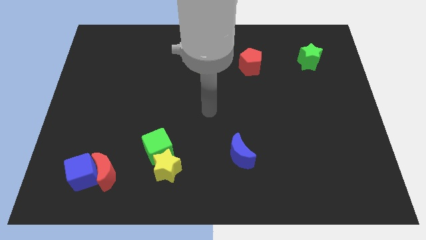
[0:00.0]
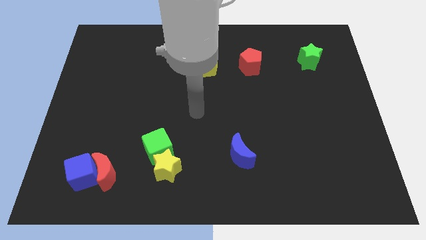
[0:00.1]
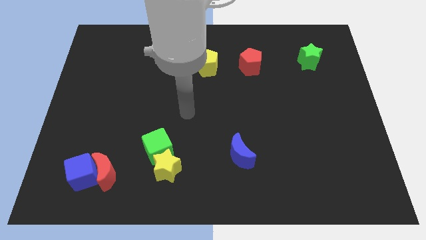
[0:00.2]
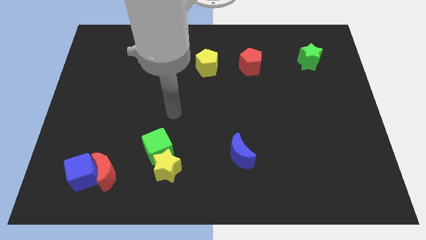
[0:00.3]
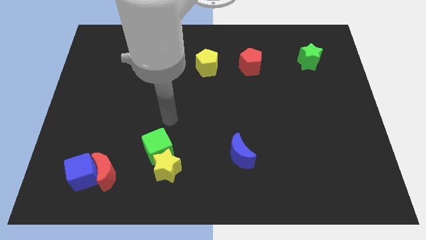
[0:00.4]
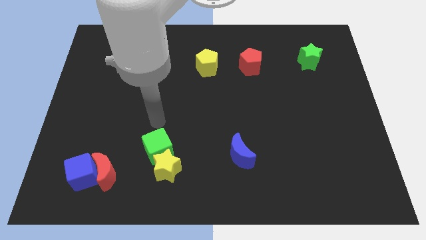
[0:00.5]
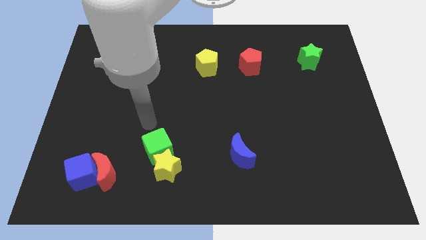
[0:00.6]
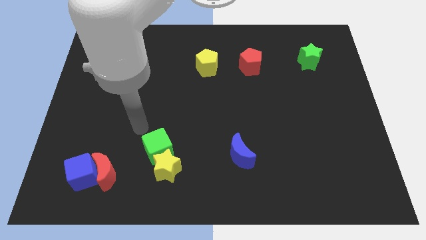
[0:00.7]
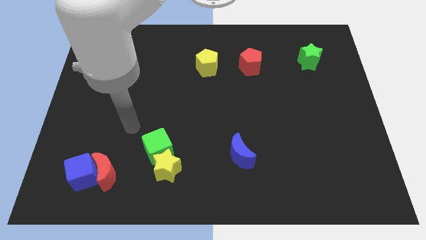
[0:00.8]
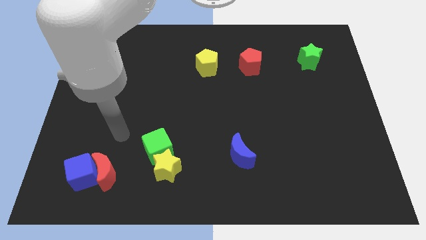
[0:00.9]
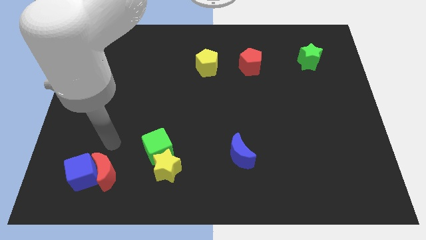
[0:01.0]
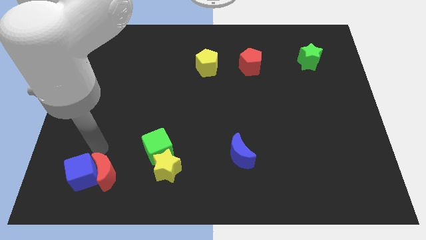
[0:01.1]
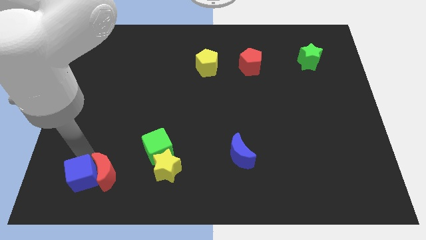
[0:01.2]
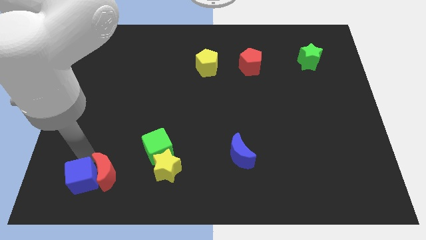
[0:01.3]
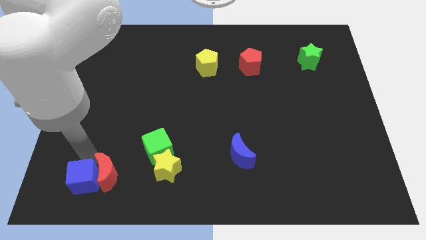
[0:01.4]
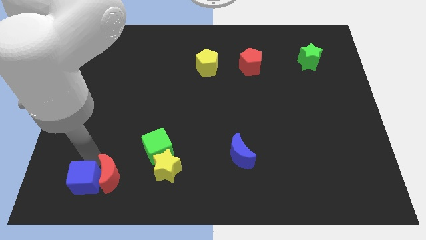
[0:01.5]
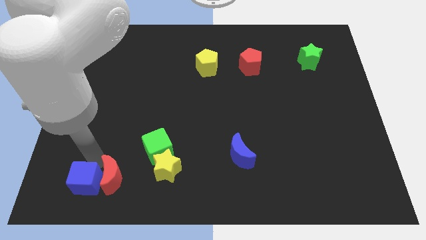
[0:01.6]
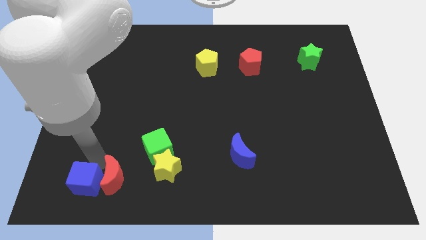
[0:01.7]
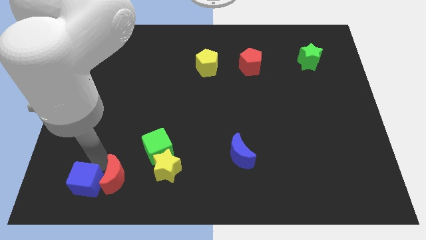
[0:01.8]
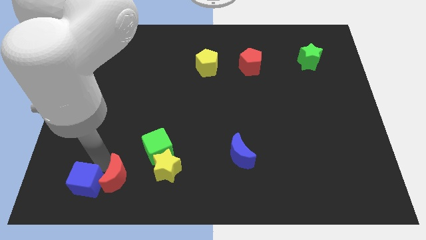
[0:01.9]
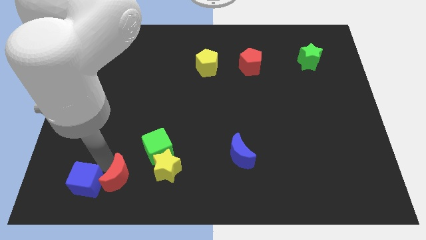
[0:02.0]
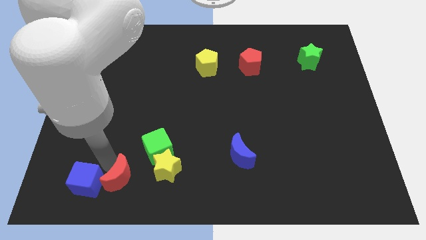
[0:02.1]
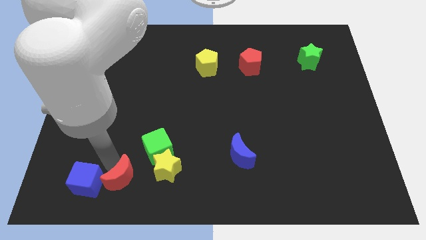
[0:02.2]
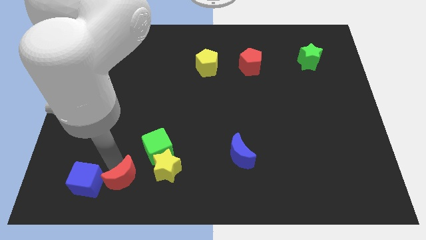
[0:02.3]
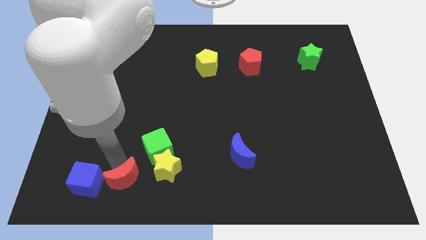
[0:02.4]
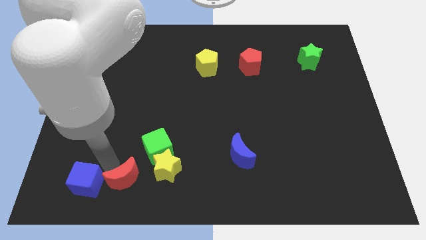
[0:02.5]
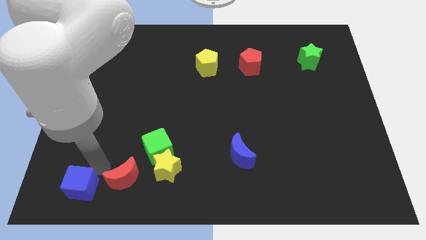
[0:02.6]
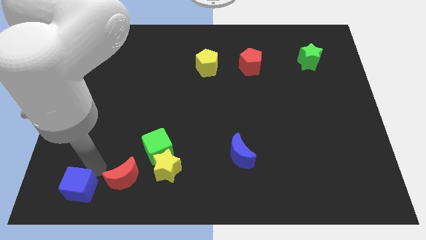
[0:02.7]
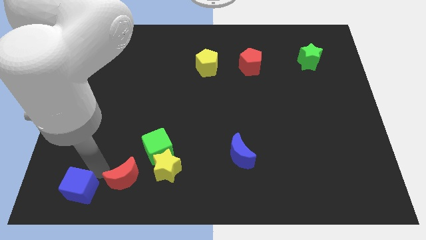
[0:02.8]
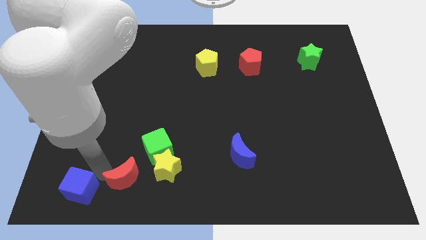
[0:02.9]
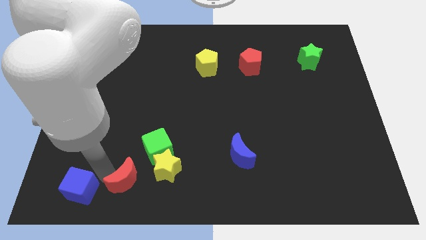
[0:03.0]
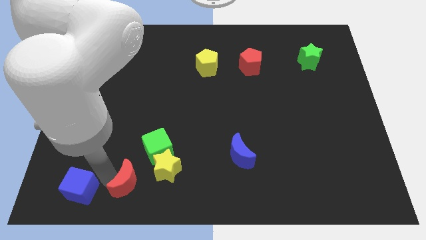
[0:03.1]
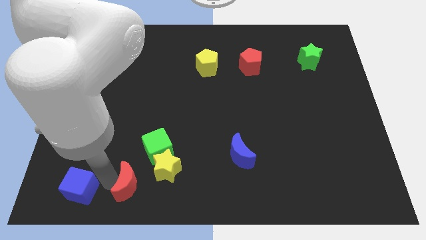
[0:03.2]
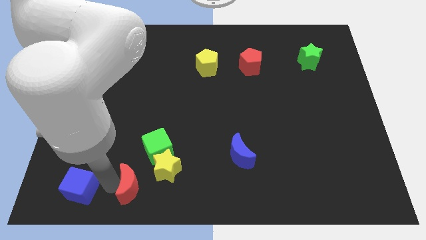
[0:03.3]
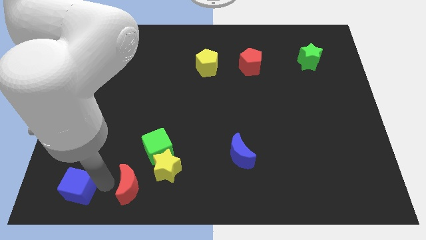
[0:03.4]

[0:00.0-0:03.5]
move the red moon away from the blue cube

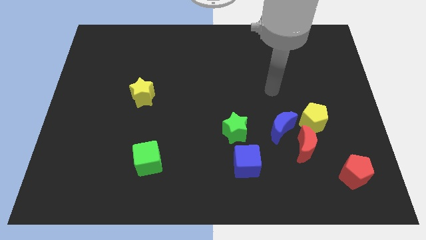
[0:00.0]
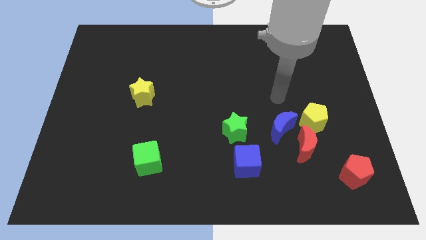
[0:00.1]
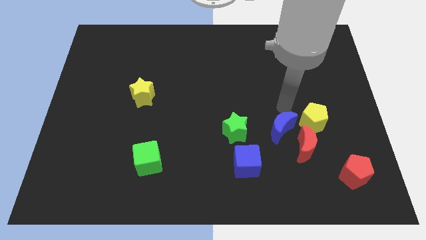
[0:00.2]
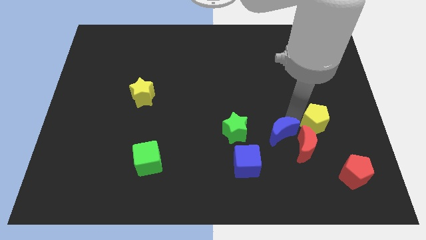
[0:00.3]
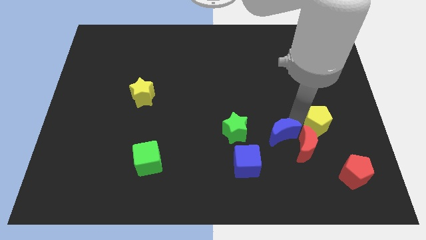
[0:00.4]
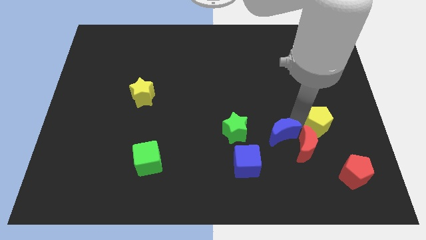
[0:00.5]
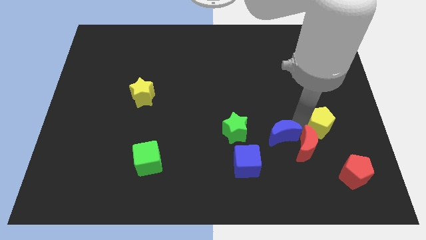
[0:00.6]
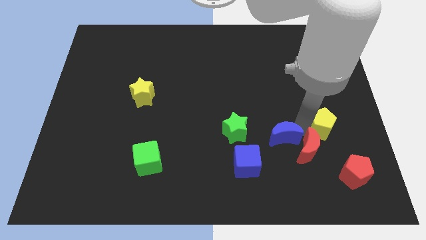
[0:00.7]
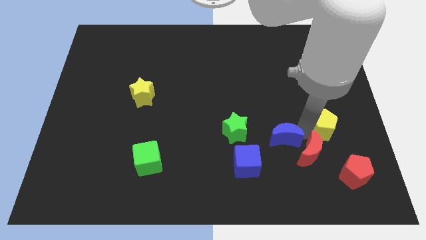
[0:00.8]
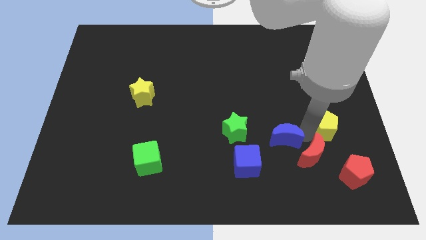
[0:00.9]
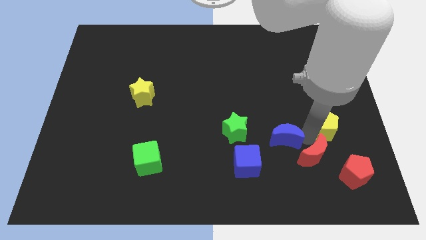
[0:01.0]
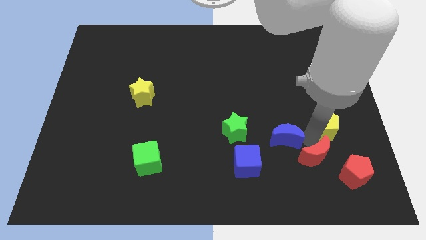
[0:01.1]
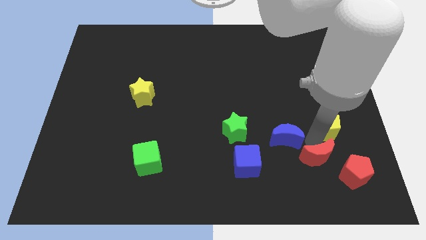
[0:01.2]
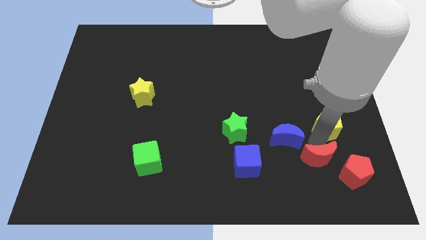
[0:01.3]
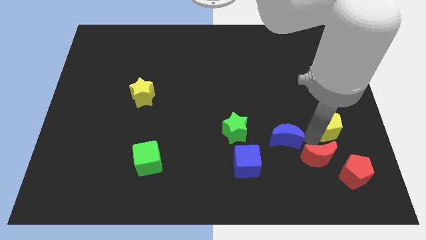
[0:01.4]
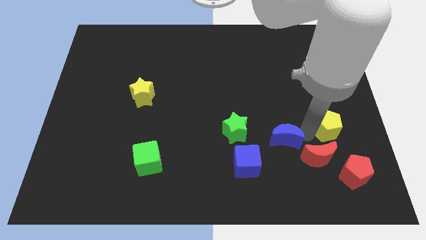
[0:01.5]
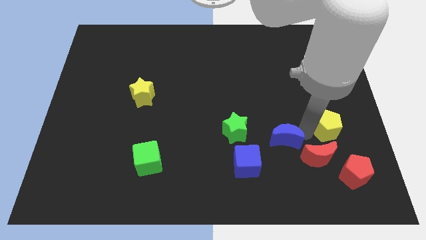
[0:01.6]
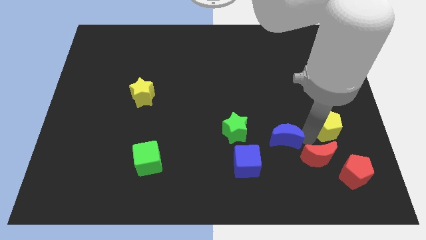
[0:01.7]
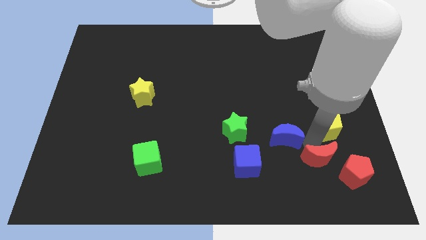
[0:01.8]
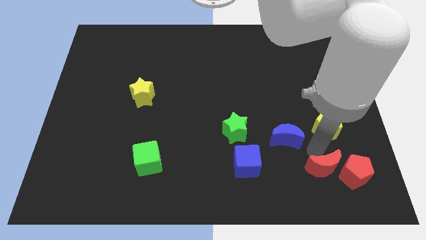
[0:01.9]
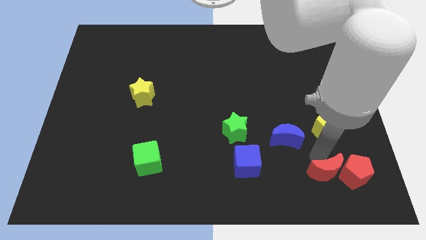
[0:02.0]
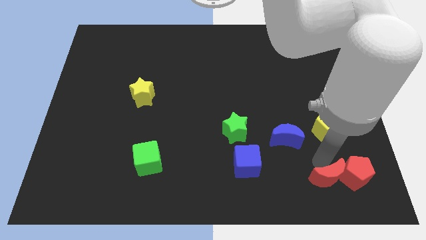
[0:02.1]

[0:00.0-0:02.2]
pull the red moon apart from the blue moon and yellow pentagon

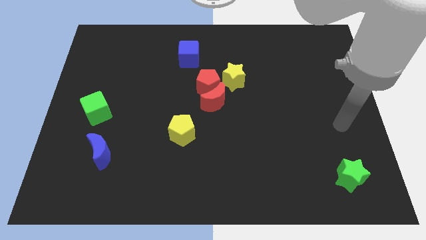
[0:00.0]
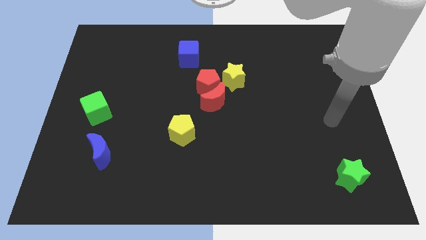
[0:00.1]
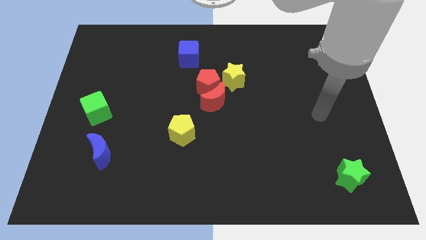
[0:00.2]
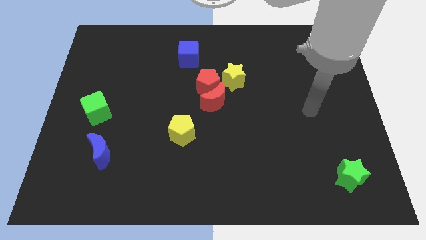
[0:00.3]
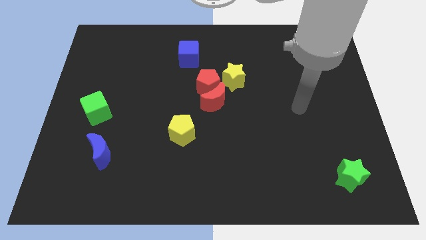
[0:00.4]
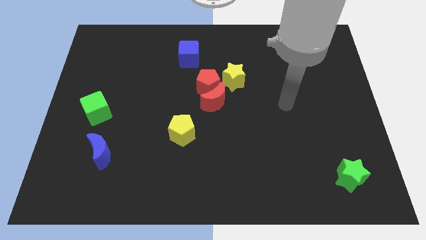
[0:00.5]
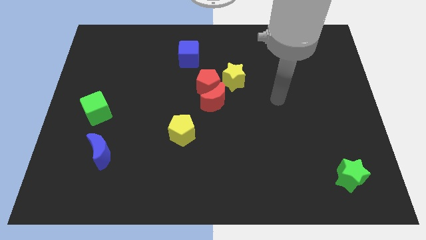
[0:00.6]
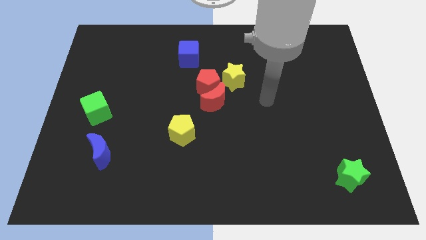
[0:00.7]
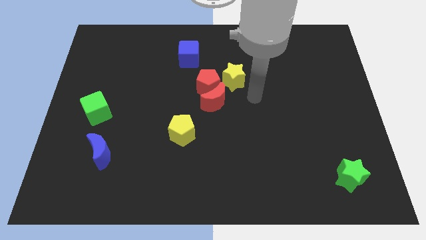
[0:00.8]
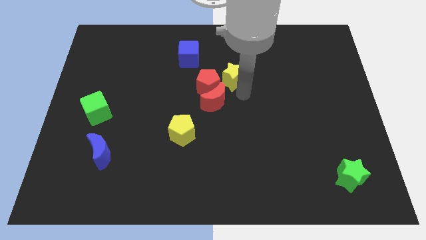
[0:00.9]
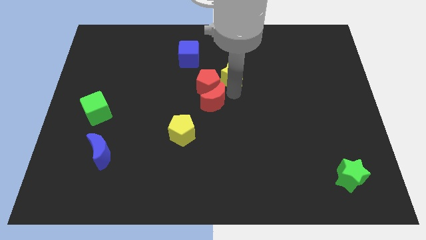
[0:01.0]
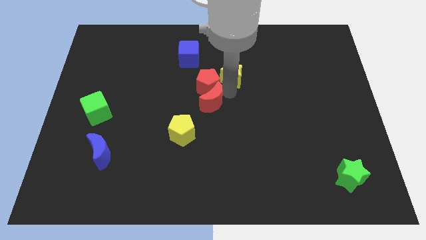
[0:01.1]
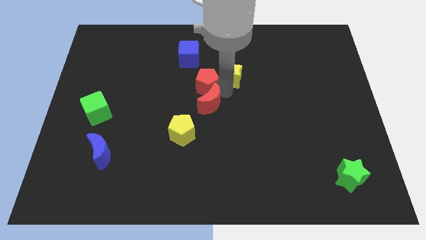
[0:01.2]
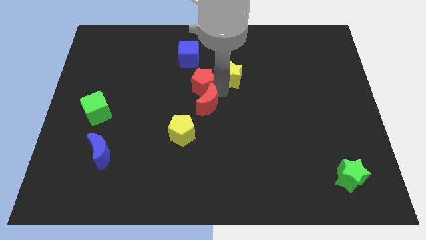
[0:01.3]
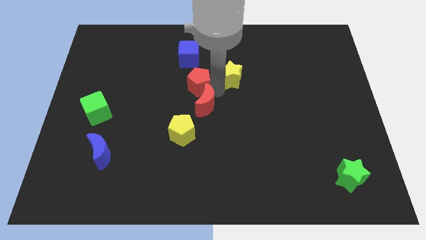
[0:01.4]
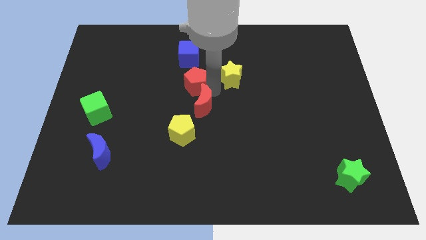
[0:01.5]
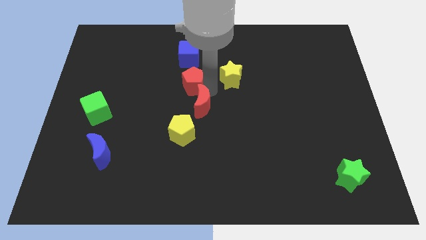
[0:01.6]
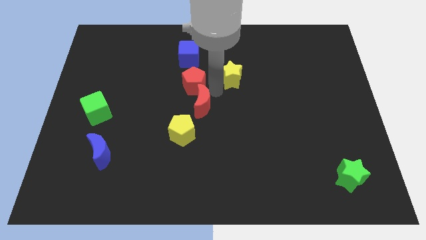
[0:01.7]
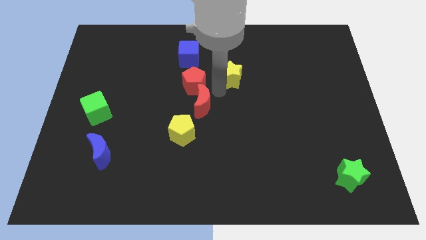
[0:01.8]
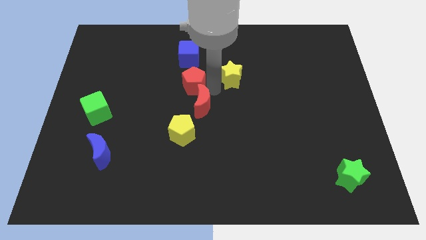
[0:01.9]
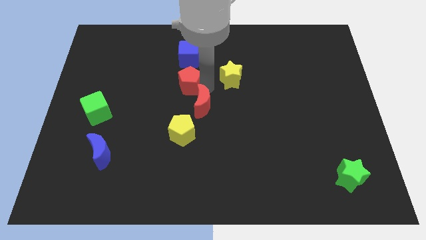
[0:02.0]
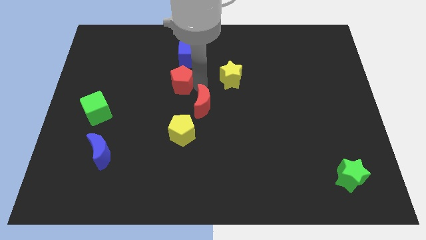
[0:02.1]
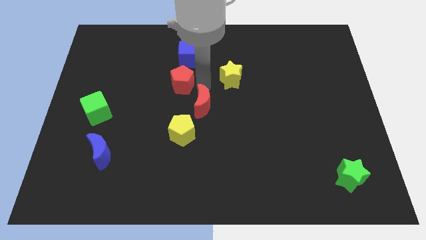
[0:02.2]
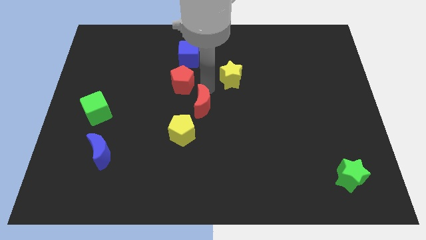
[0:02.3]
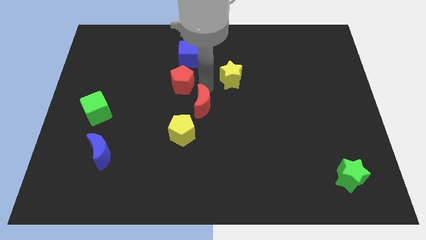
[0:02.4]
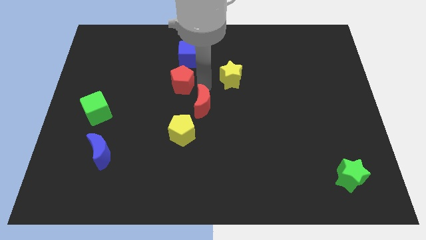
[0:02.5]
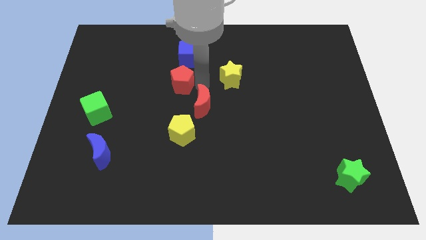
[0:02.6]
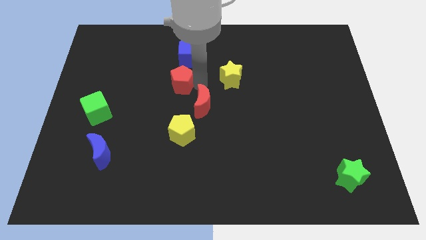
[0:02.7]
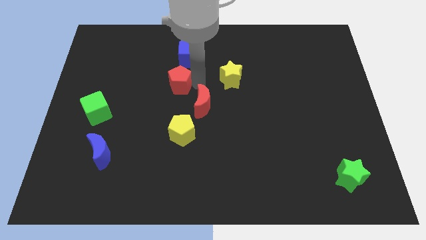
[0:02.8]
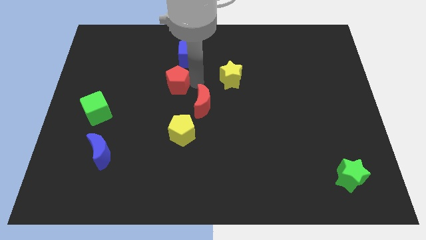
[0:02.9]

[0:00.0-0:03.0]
pull the red pentagon apart from the red moon and yellow star

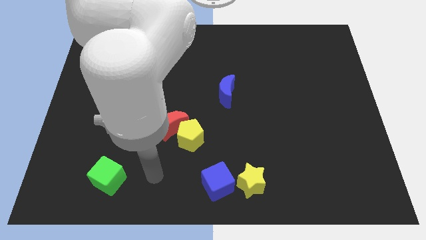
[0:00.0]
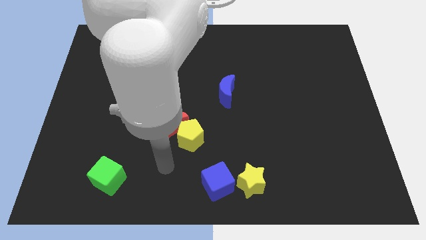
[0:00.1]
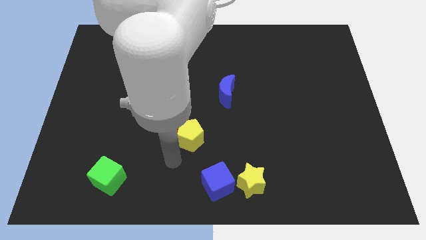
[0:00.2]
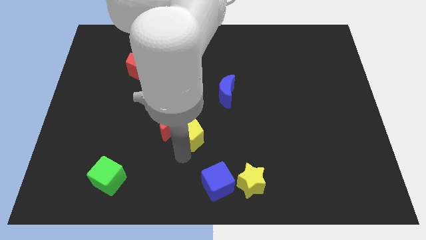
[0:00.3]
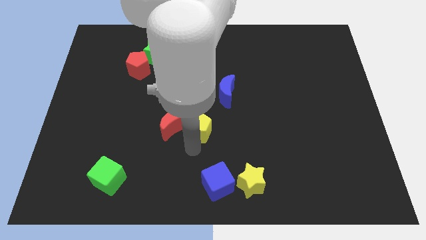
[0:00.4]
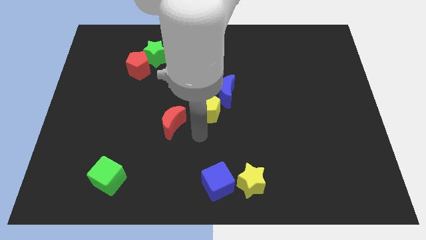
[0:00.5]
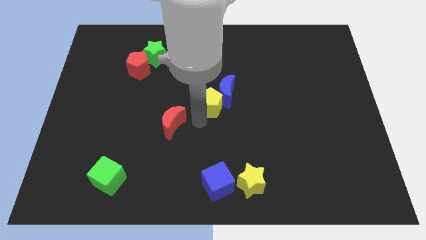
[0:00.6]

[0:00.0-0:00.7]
separate the red moon from the yellow pentagon
